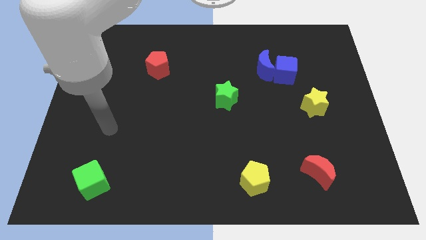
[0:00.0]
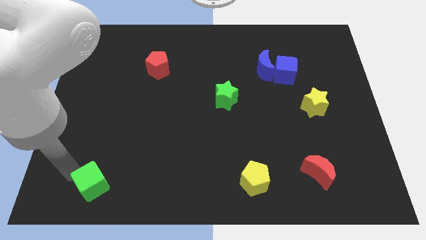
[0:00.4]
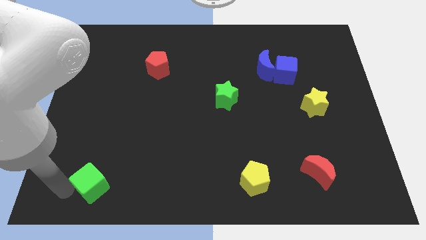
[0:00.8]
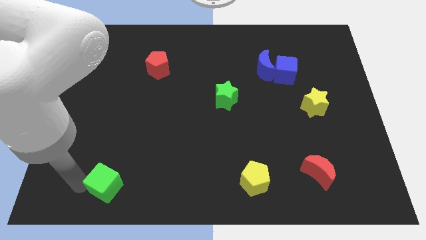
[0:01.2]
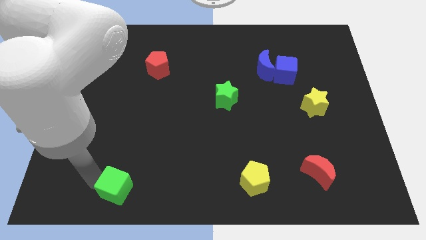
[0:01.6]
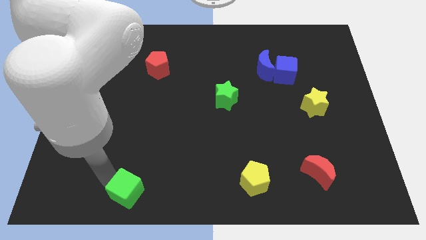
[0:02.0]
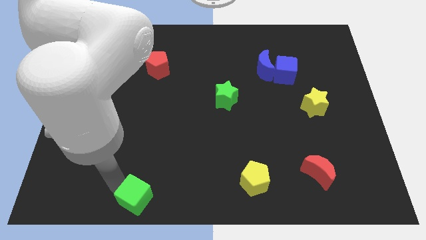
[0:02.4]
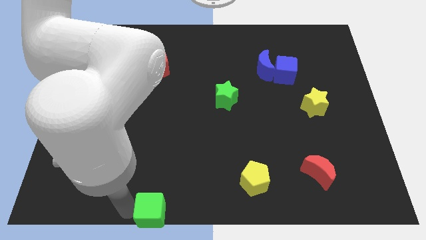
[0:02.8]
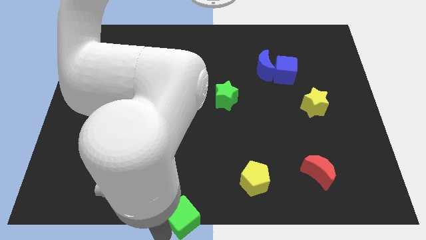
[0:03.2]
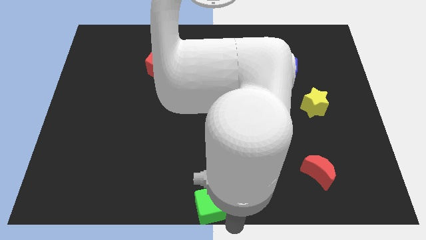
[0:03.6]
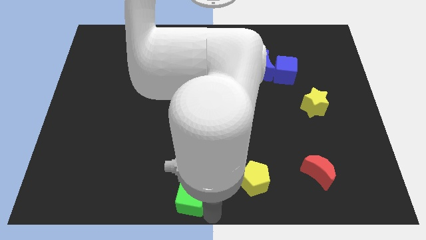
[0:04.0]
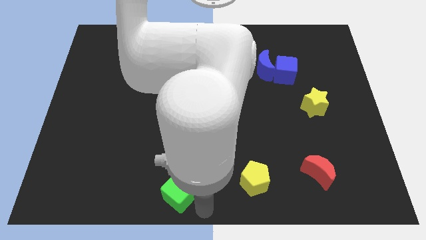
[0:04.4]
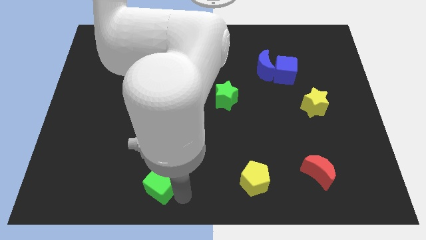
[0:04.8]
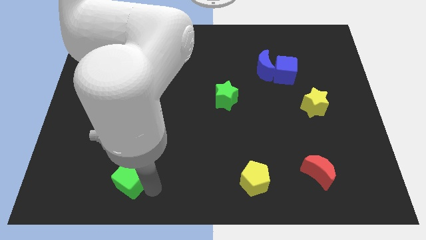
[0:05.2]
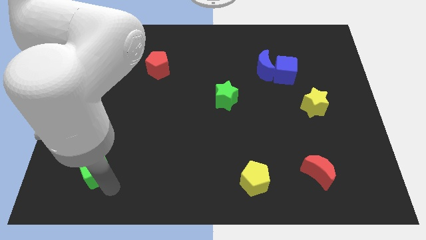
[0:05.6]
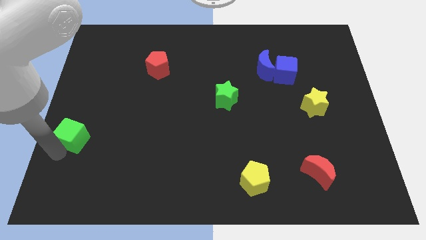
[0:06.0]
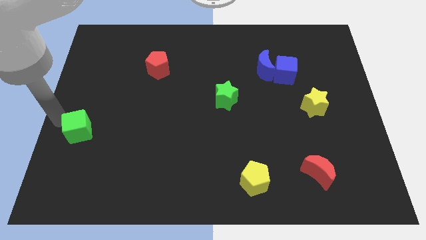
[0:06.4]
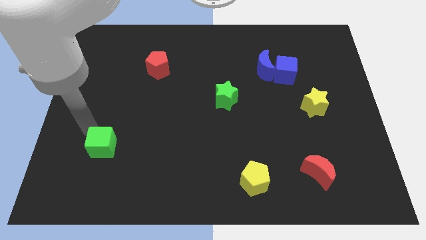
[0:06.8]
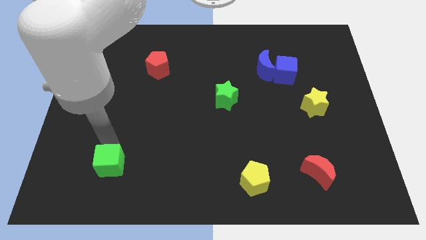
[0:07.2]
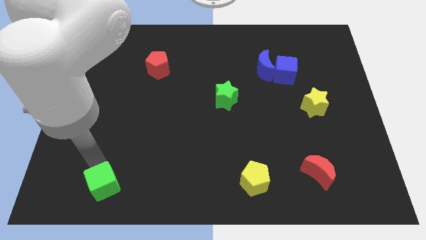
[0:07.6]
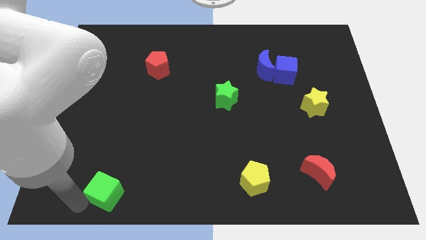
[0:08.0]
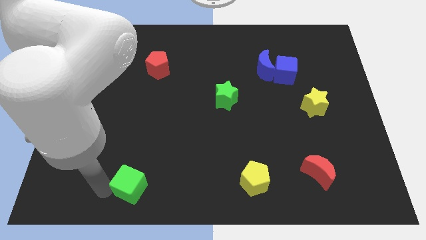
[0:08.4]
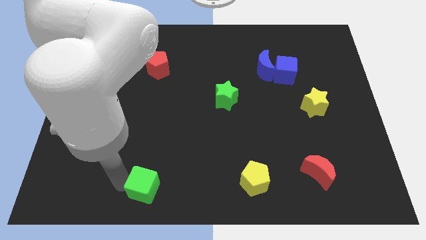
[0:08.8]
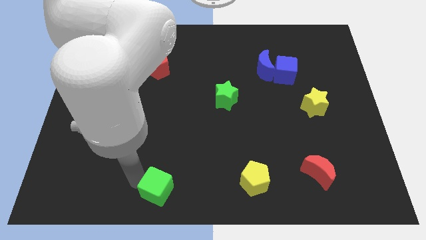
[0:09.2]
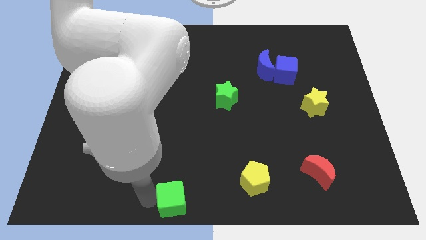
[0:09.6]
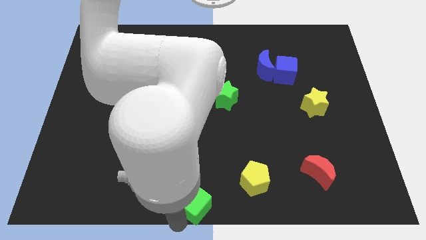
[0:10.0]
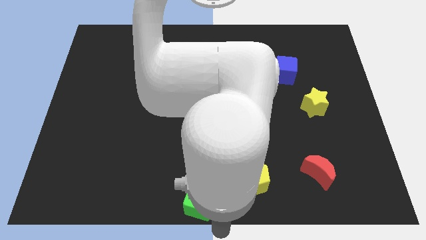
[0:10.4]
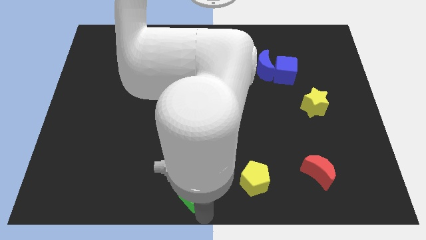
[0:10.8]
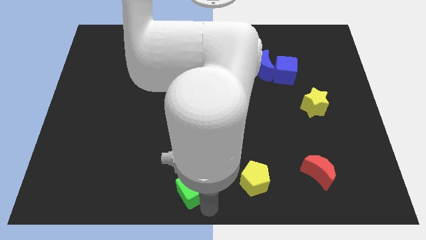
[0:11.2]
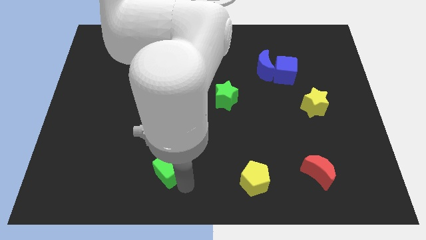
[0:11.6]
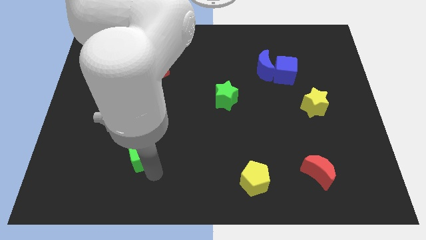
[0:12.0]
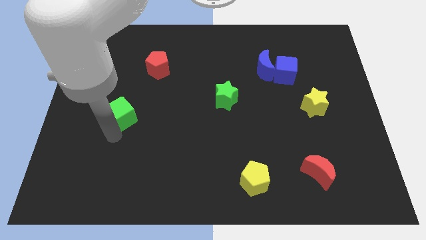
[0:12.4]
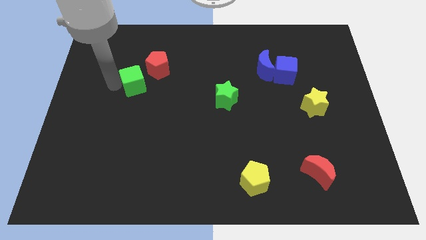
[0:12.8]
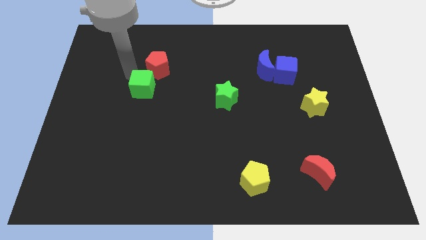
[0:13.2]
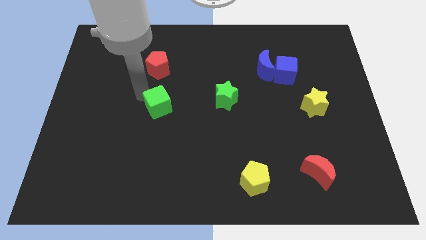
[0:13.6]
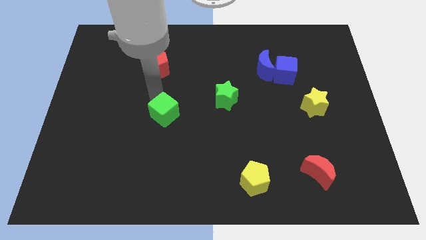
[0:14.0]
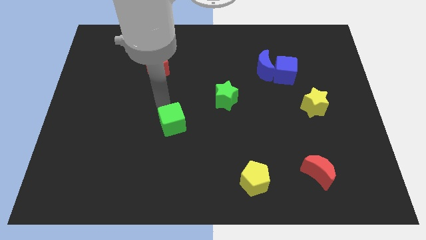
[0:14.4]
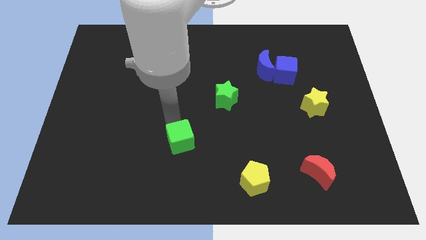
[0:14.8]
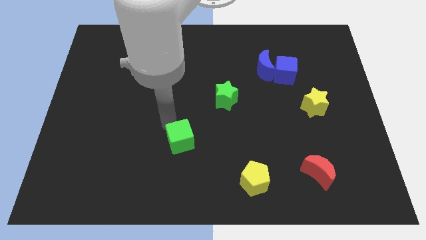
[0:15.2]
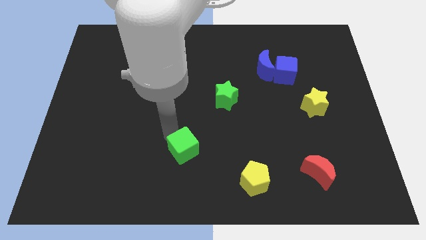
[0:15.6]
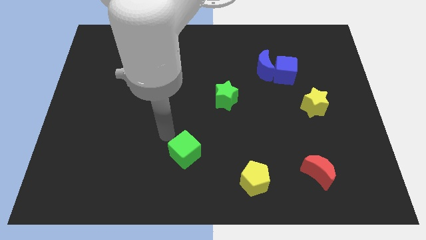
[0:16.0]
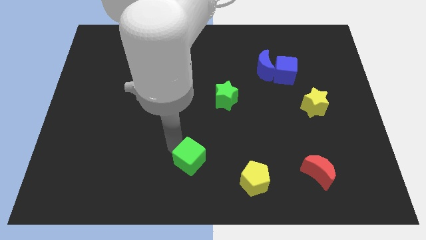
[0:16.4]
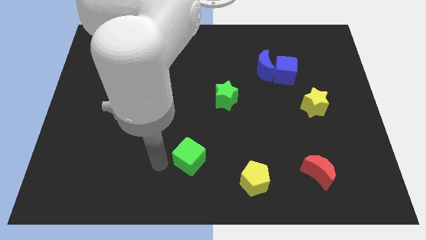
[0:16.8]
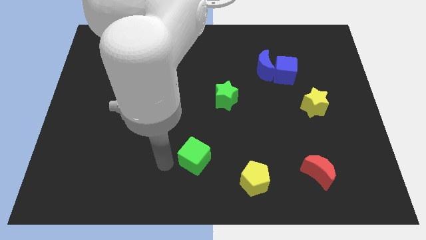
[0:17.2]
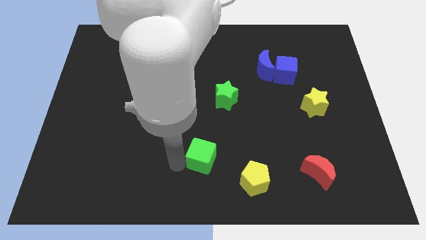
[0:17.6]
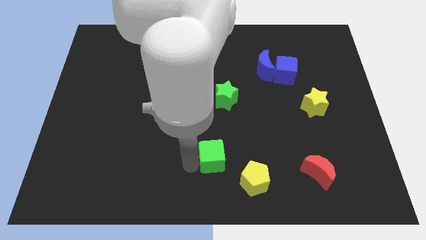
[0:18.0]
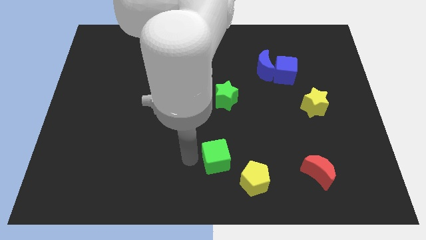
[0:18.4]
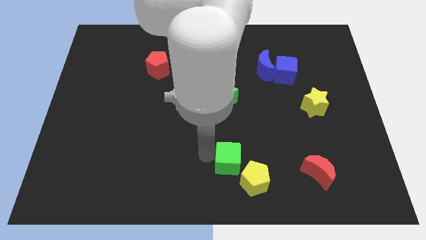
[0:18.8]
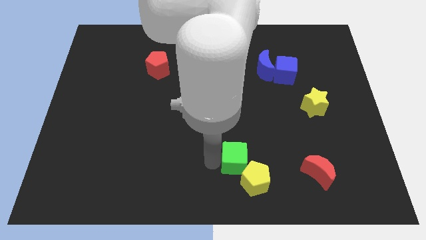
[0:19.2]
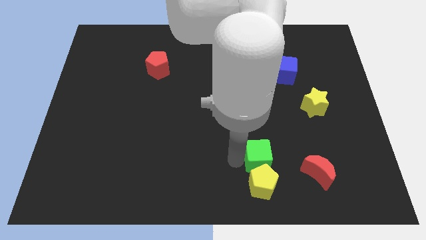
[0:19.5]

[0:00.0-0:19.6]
push the green cube to the top right of the yellow pentagon

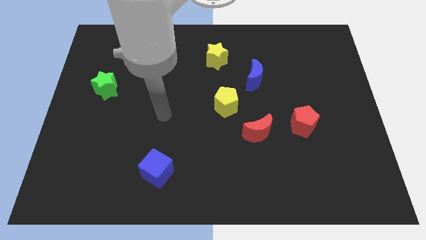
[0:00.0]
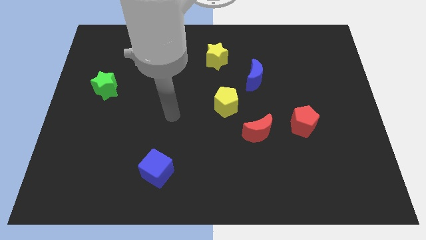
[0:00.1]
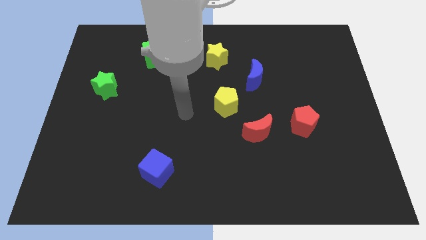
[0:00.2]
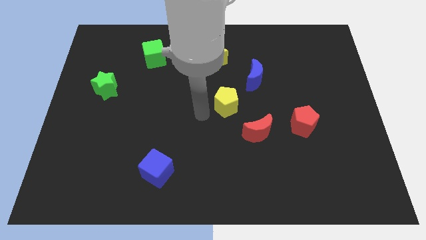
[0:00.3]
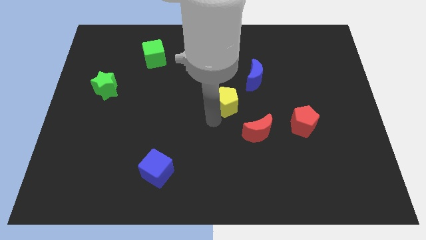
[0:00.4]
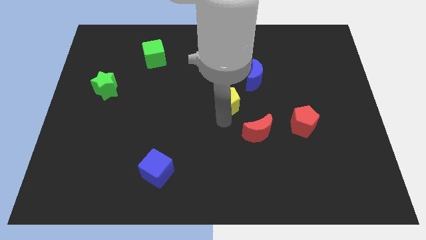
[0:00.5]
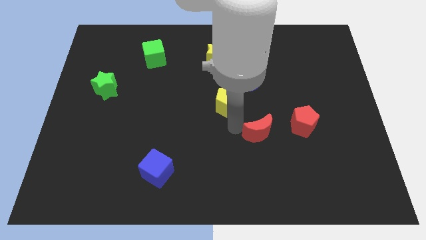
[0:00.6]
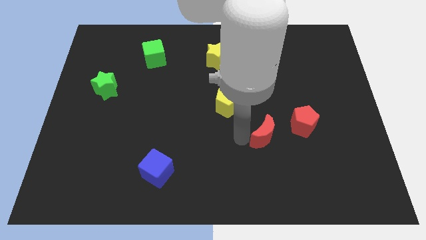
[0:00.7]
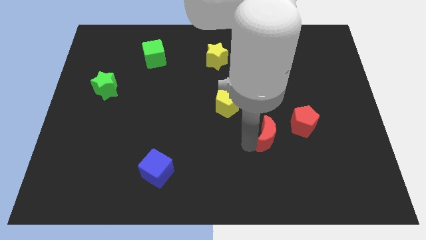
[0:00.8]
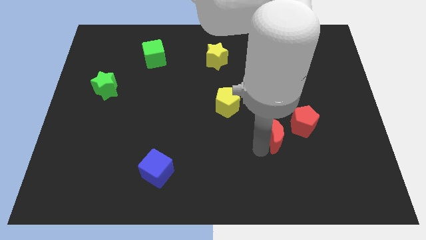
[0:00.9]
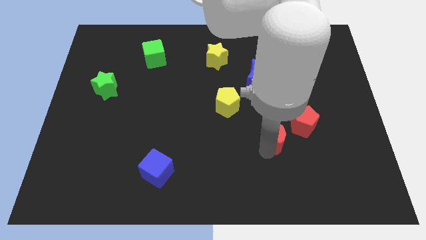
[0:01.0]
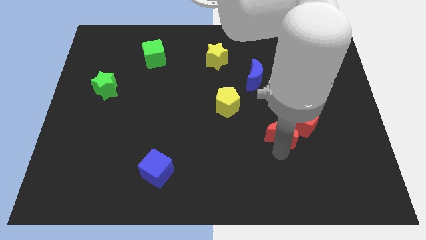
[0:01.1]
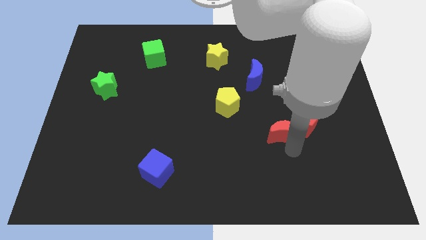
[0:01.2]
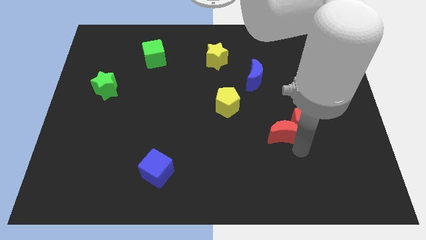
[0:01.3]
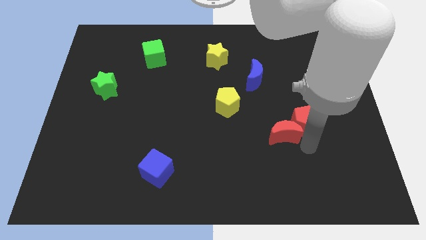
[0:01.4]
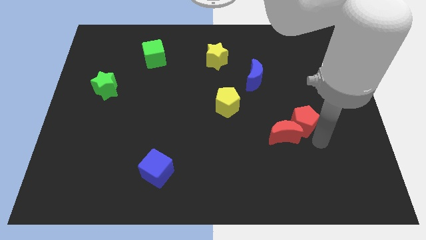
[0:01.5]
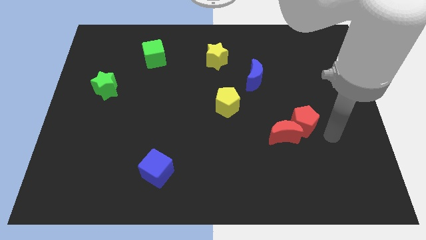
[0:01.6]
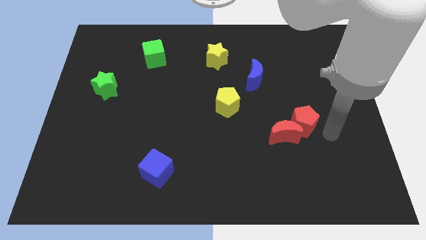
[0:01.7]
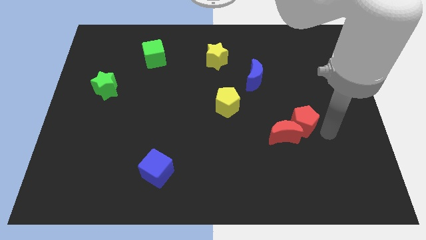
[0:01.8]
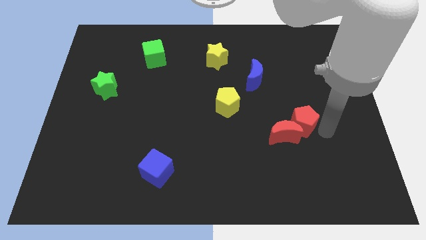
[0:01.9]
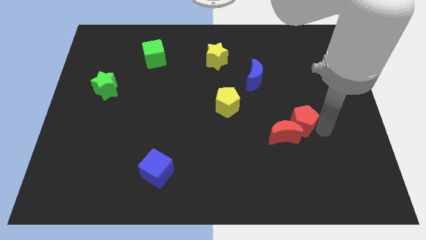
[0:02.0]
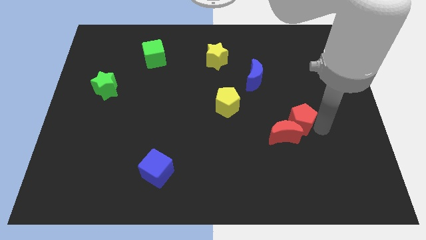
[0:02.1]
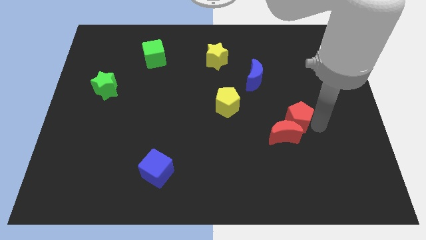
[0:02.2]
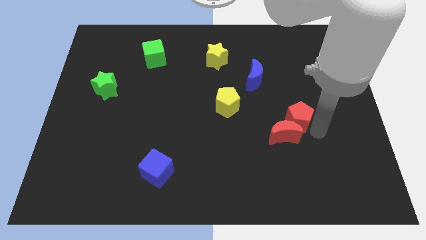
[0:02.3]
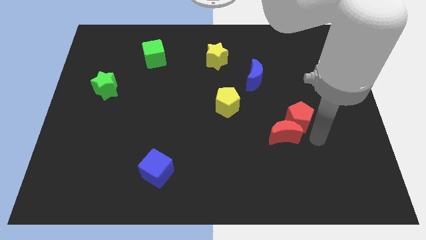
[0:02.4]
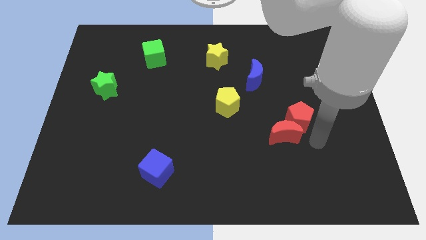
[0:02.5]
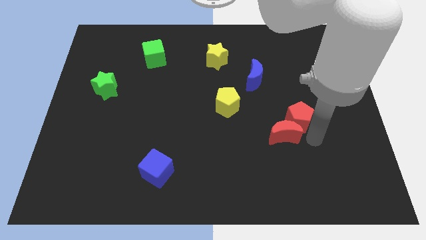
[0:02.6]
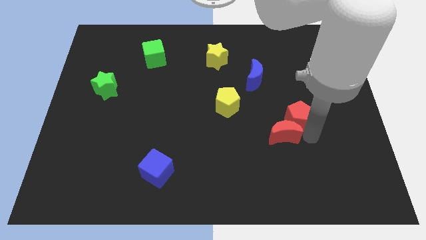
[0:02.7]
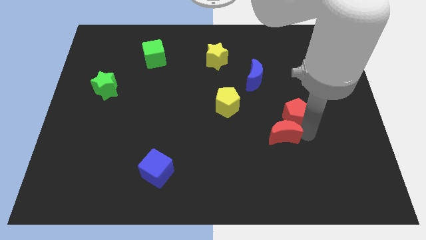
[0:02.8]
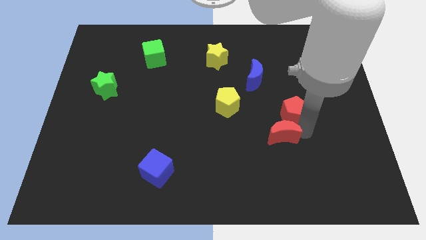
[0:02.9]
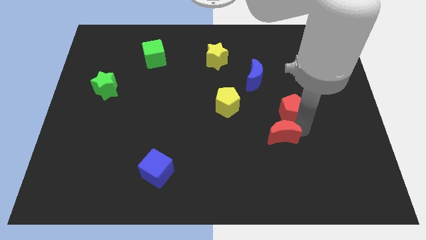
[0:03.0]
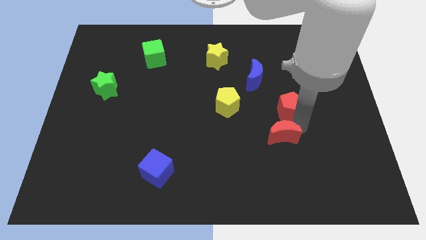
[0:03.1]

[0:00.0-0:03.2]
slide the red pentagon to the bottom right side of the blue moon

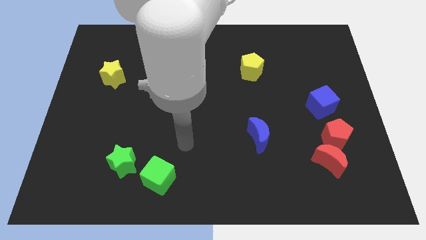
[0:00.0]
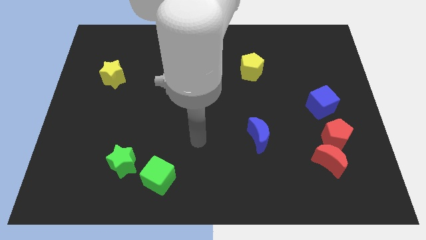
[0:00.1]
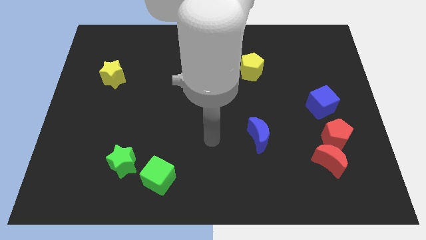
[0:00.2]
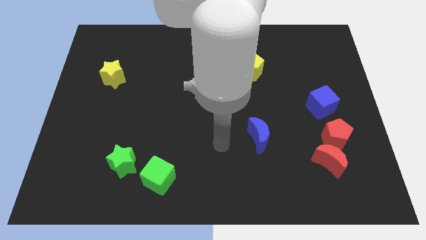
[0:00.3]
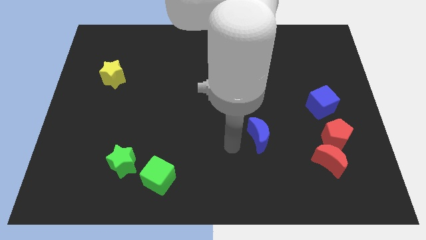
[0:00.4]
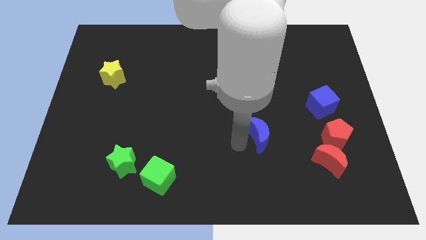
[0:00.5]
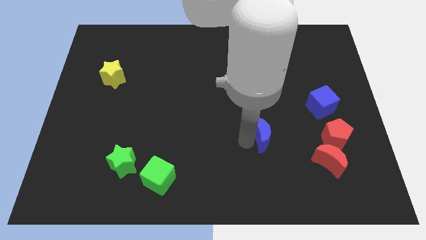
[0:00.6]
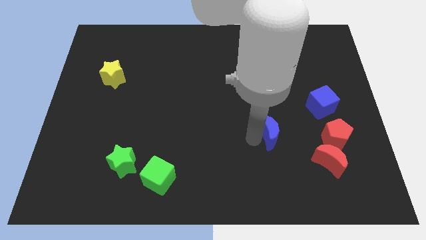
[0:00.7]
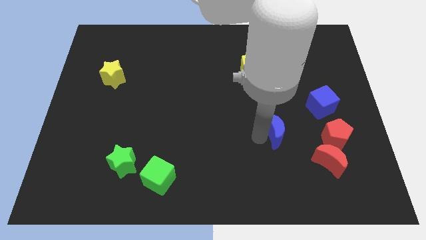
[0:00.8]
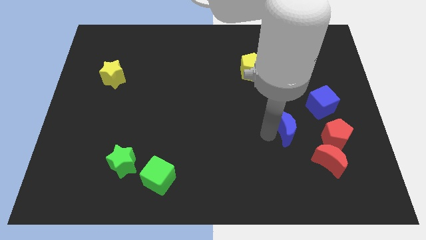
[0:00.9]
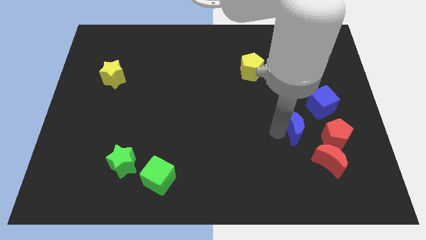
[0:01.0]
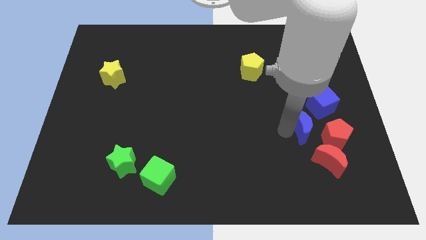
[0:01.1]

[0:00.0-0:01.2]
slide the blue moon to the top side of the red moon
